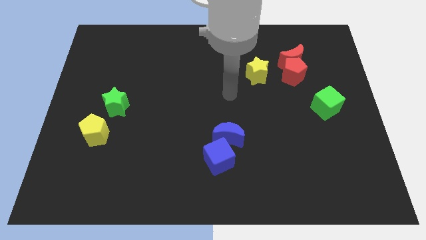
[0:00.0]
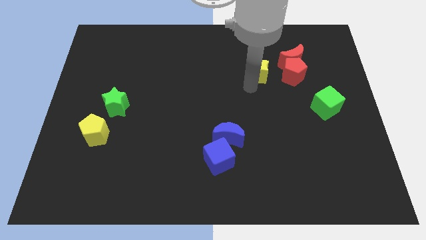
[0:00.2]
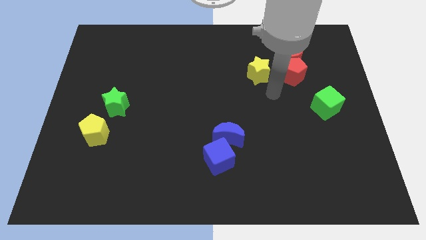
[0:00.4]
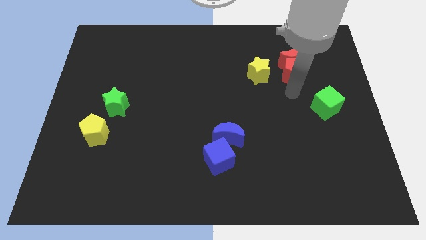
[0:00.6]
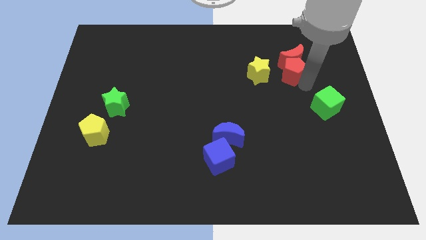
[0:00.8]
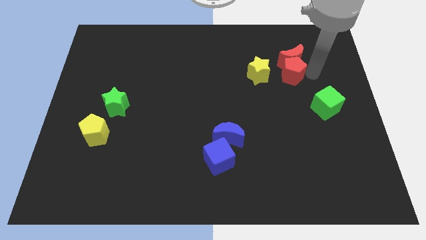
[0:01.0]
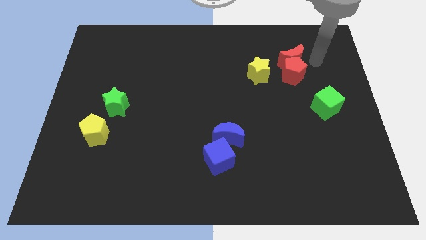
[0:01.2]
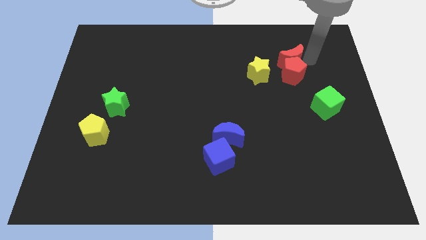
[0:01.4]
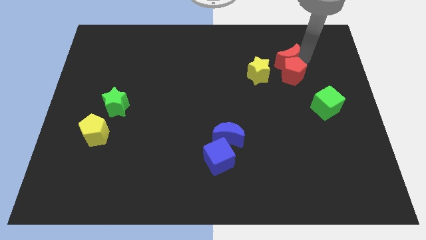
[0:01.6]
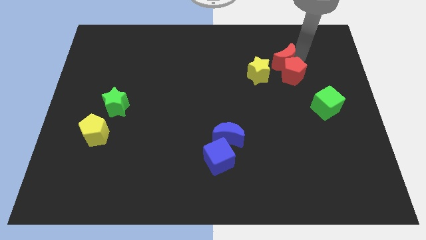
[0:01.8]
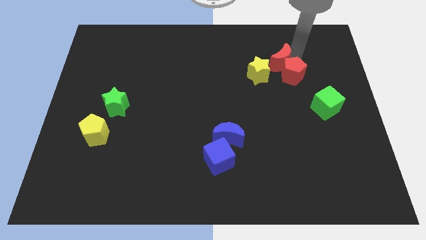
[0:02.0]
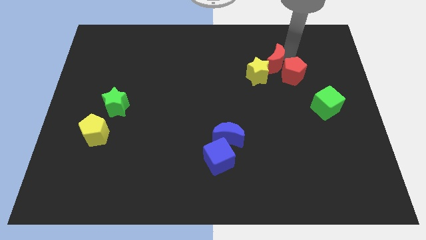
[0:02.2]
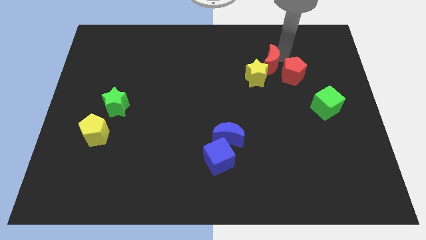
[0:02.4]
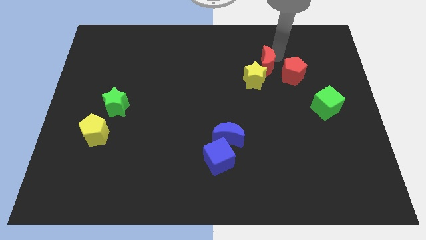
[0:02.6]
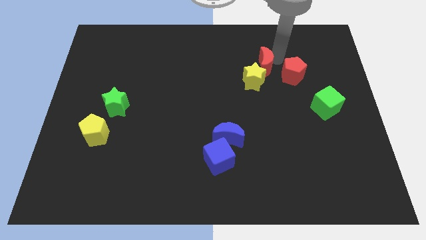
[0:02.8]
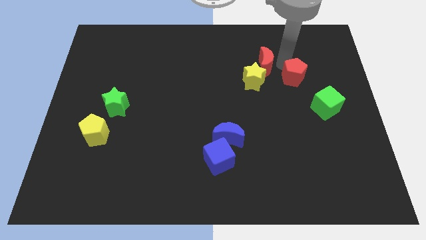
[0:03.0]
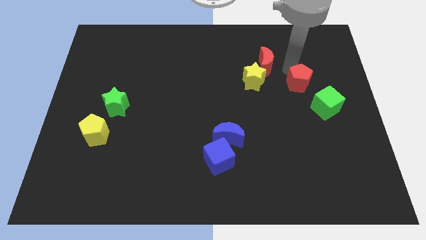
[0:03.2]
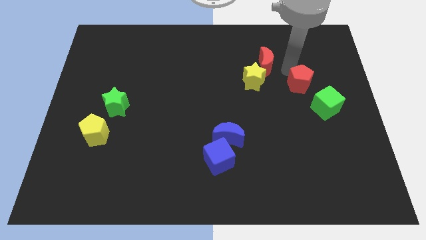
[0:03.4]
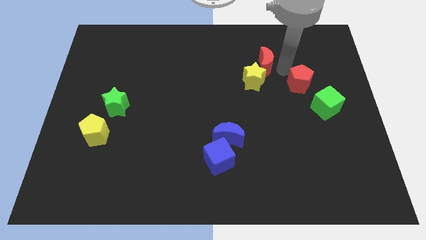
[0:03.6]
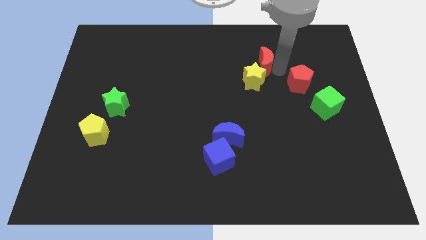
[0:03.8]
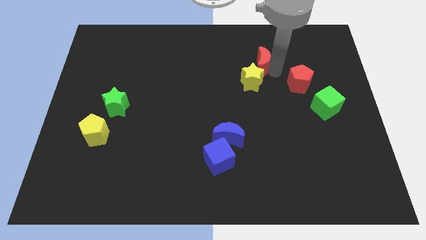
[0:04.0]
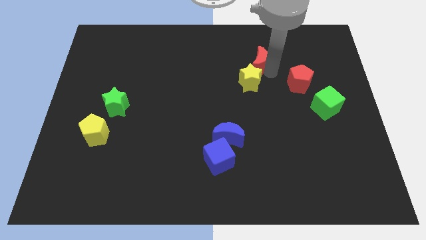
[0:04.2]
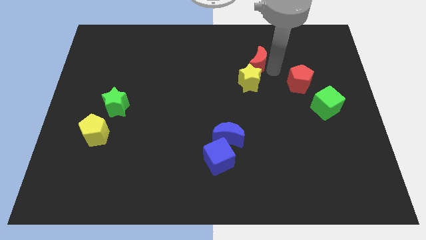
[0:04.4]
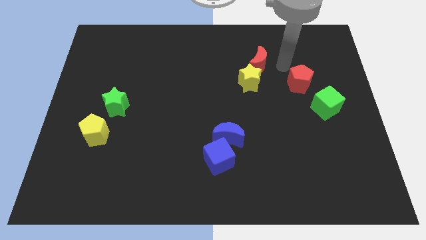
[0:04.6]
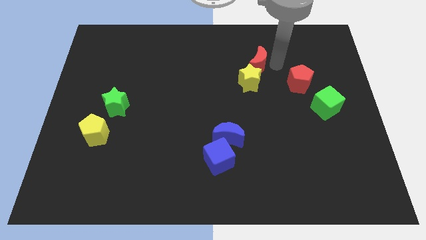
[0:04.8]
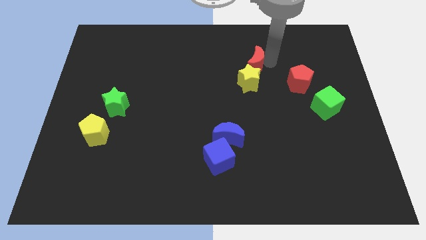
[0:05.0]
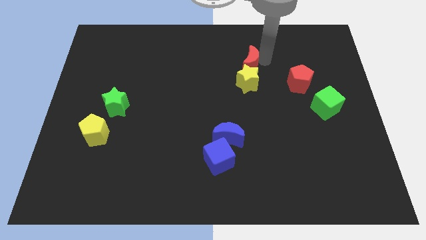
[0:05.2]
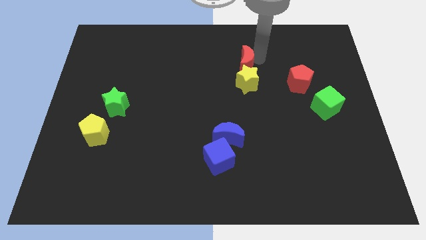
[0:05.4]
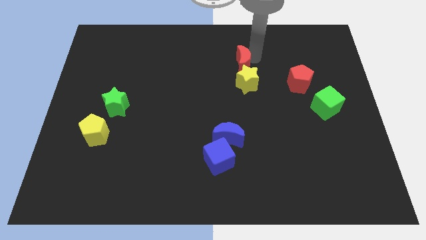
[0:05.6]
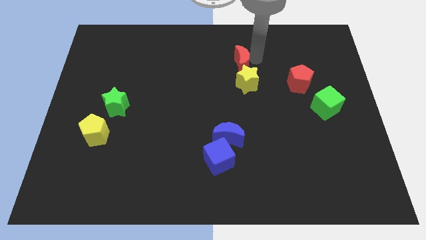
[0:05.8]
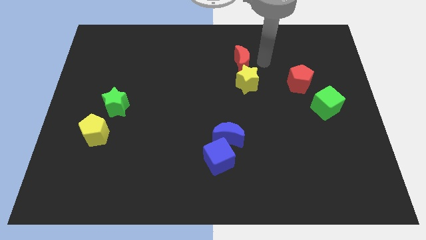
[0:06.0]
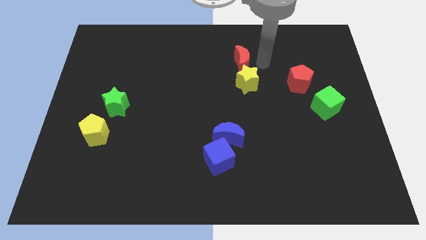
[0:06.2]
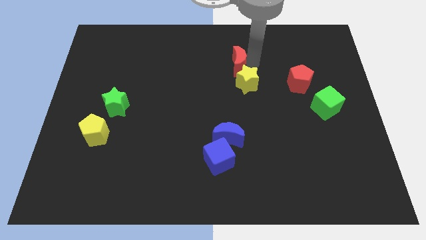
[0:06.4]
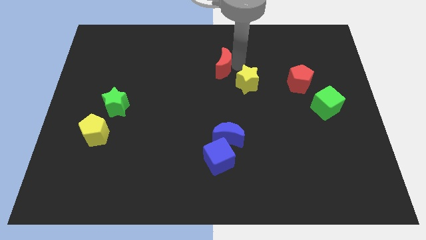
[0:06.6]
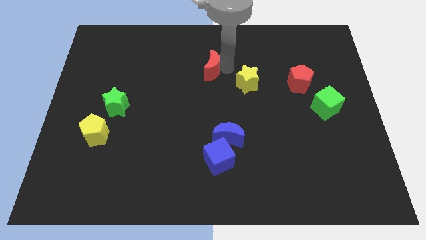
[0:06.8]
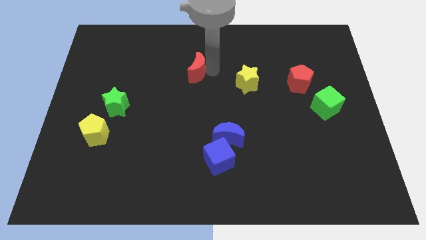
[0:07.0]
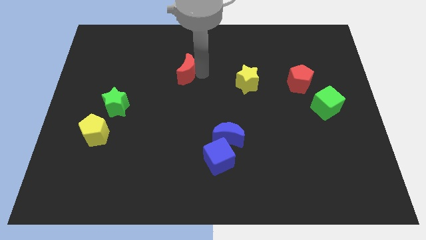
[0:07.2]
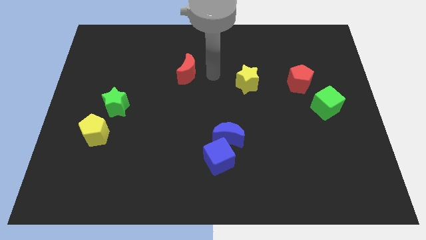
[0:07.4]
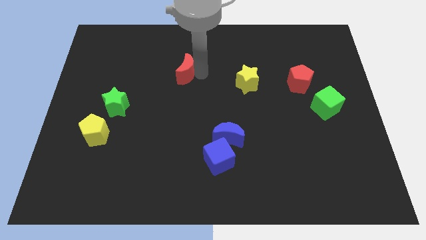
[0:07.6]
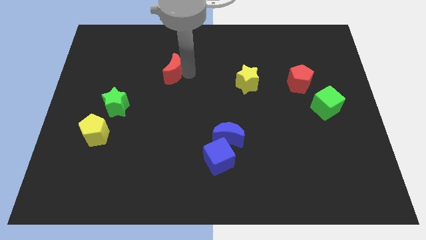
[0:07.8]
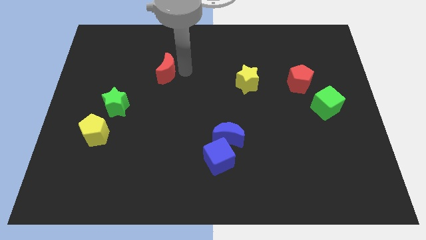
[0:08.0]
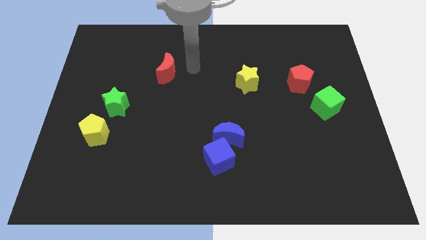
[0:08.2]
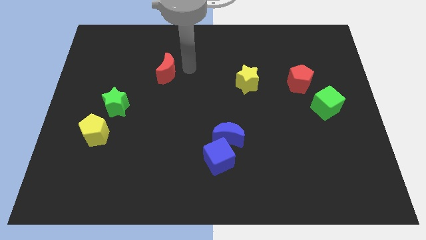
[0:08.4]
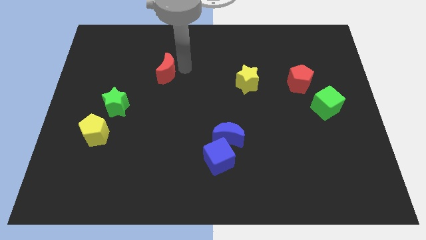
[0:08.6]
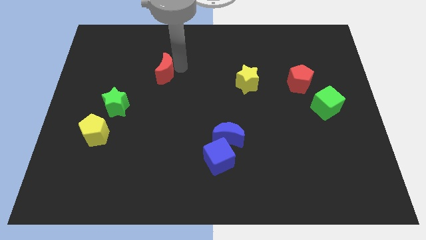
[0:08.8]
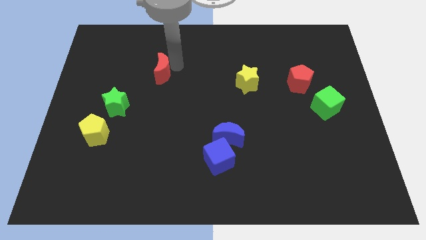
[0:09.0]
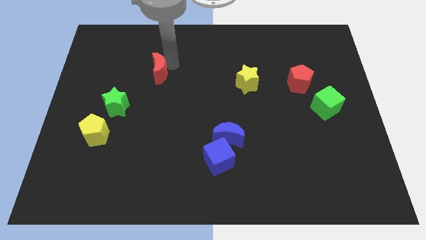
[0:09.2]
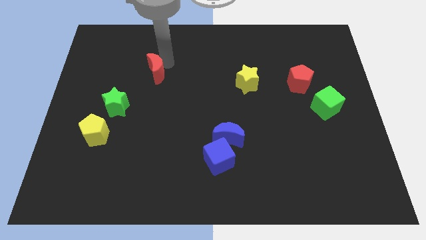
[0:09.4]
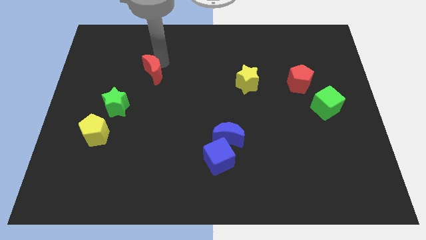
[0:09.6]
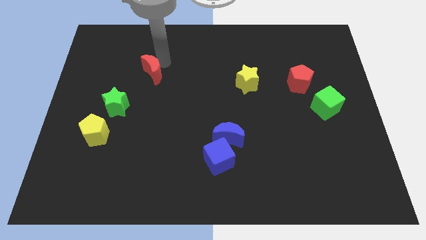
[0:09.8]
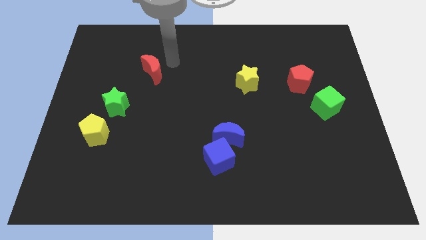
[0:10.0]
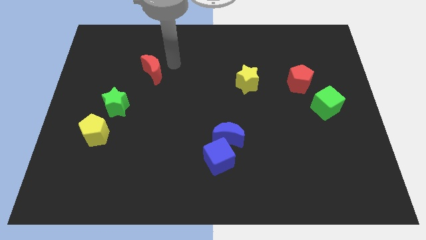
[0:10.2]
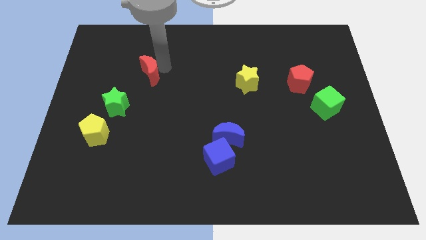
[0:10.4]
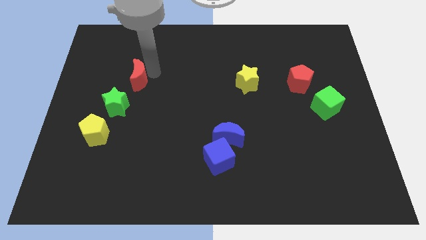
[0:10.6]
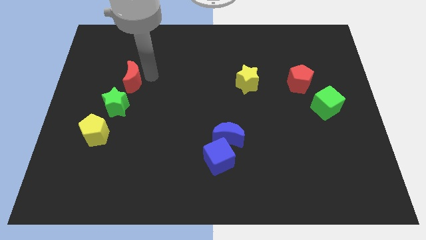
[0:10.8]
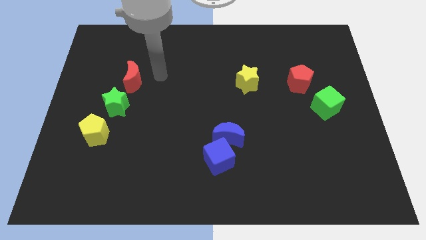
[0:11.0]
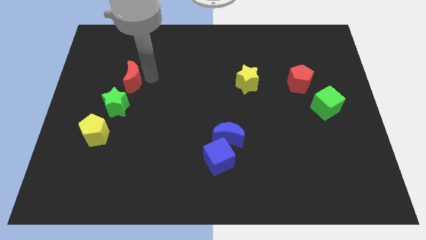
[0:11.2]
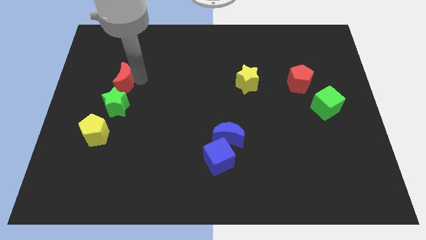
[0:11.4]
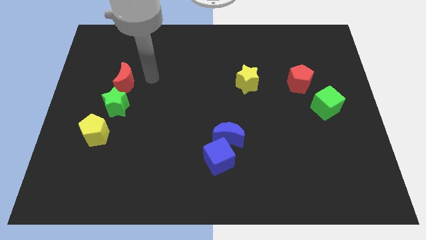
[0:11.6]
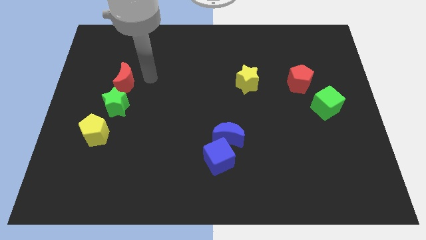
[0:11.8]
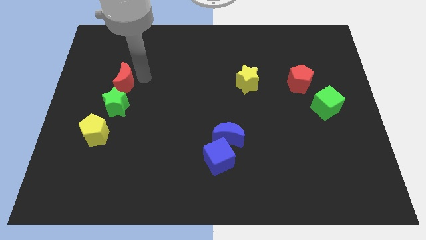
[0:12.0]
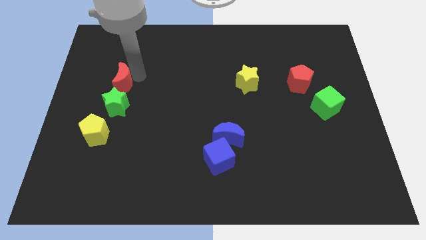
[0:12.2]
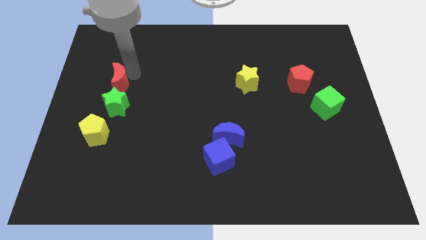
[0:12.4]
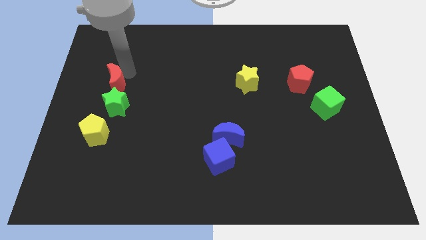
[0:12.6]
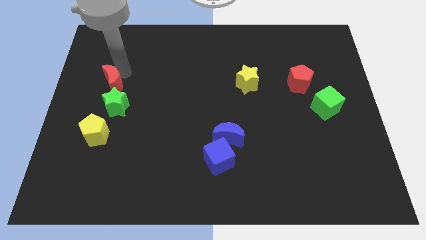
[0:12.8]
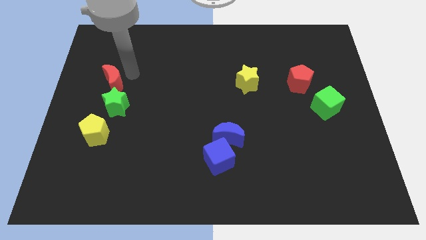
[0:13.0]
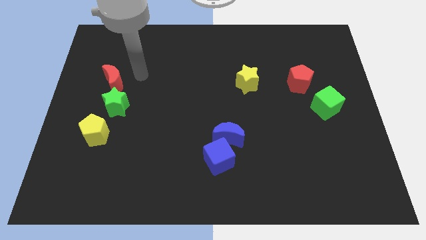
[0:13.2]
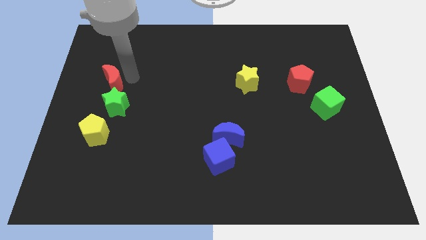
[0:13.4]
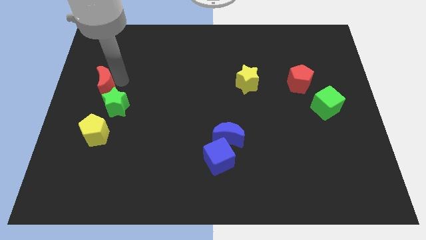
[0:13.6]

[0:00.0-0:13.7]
slide the red moon to the left side
